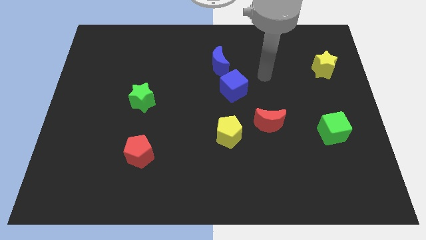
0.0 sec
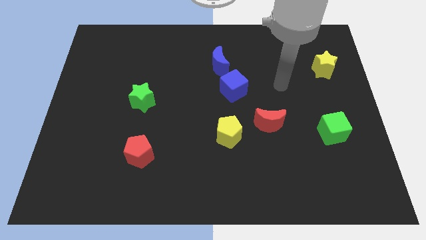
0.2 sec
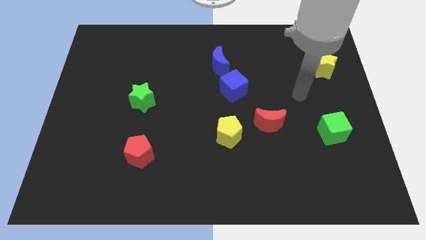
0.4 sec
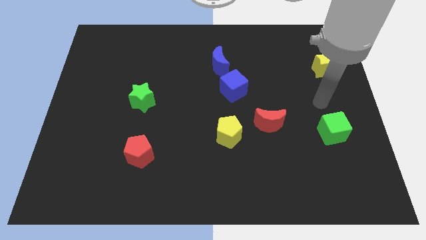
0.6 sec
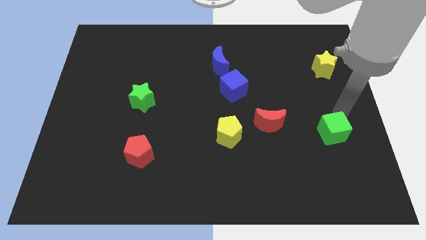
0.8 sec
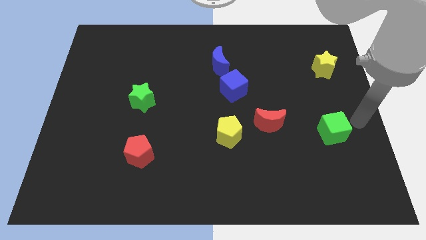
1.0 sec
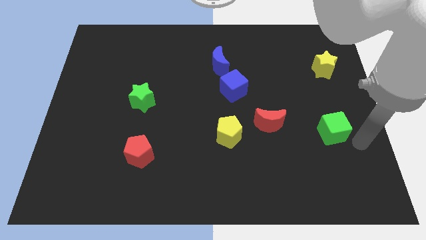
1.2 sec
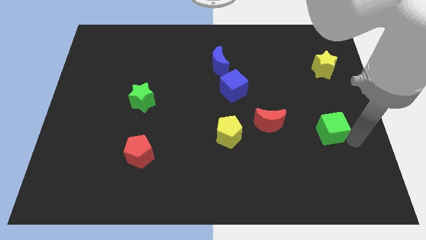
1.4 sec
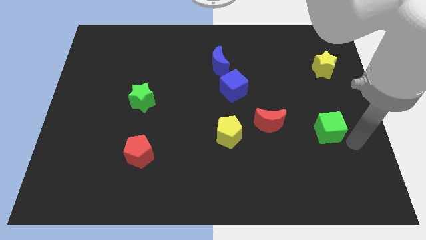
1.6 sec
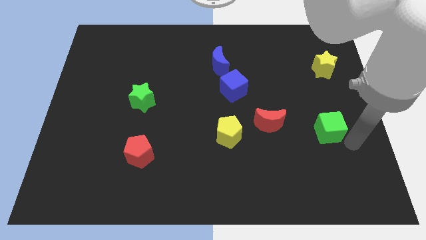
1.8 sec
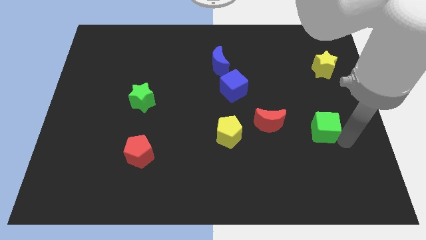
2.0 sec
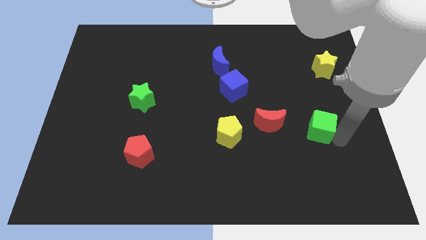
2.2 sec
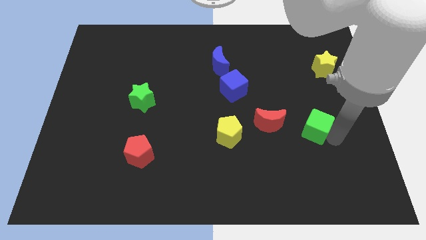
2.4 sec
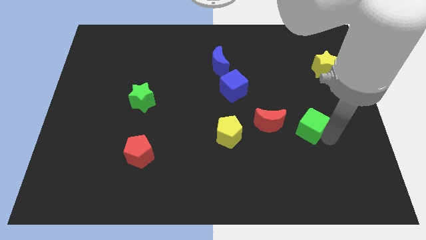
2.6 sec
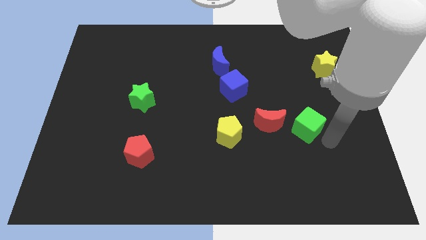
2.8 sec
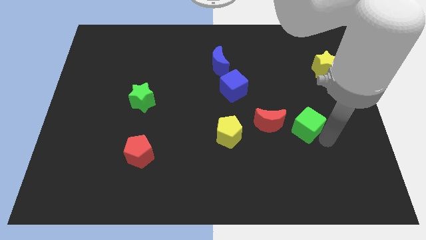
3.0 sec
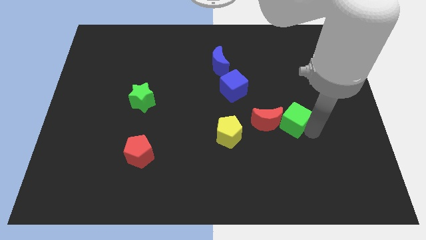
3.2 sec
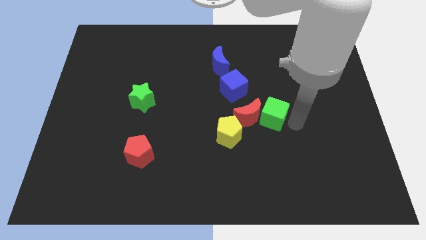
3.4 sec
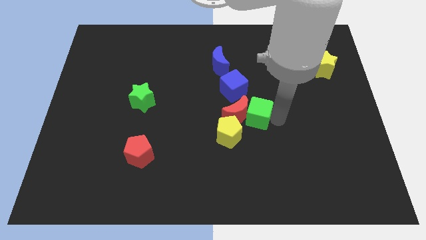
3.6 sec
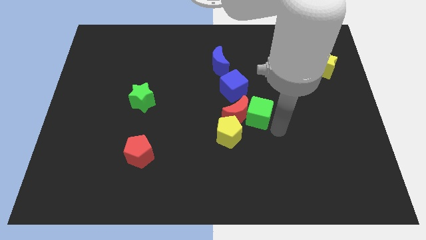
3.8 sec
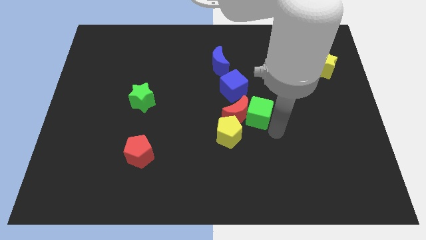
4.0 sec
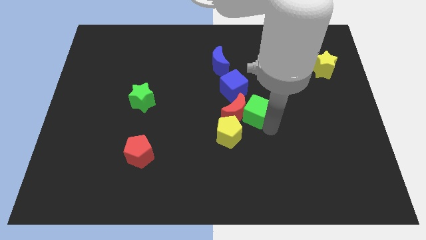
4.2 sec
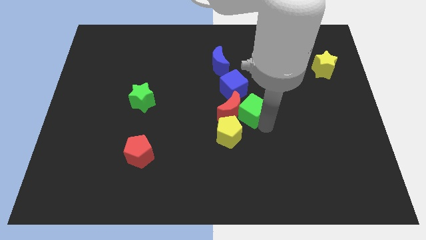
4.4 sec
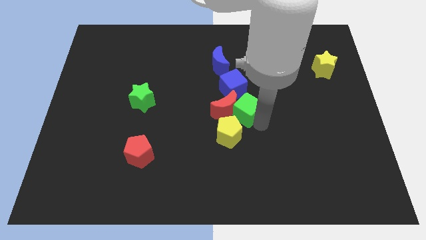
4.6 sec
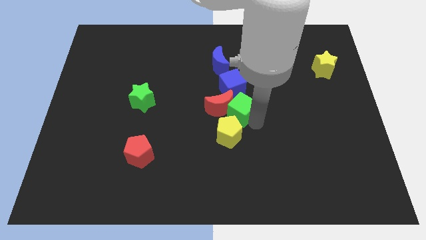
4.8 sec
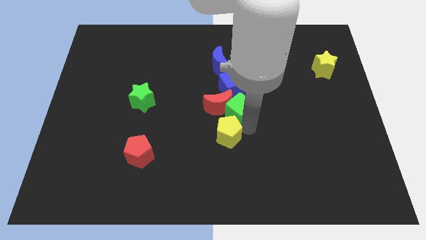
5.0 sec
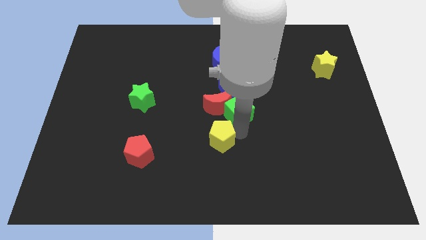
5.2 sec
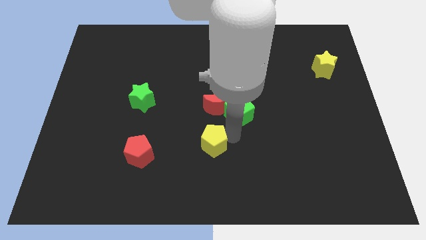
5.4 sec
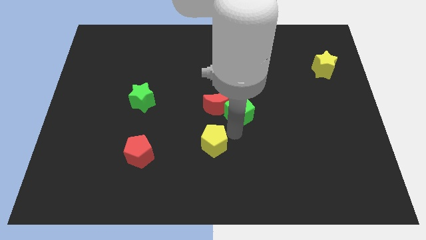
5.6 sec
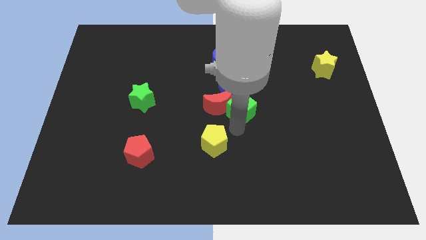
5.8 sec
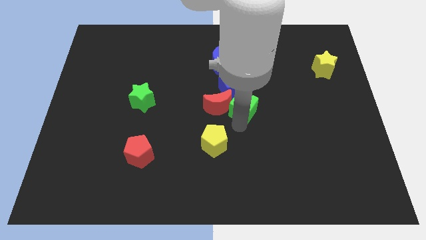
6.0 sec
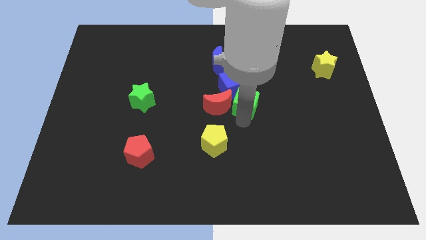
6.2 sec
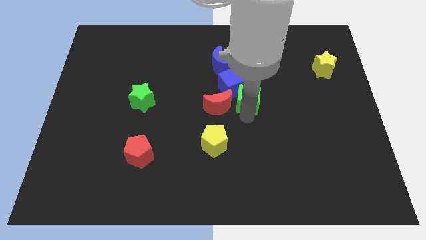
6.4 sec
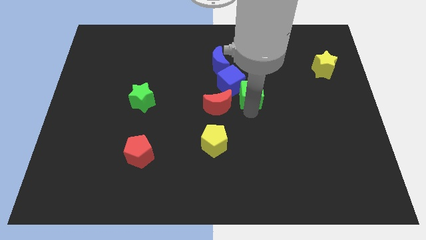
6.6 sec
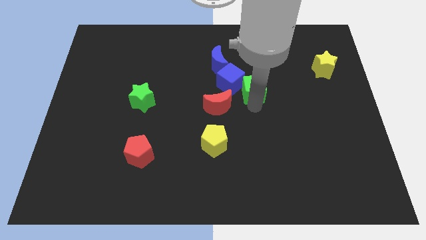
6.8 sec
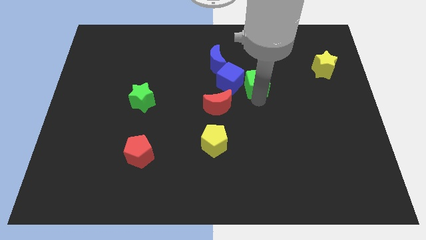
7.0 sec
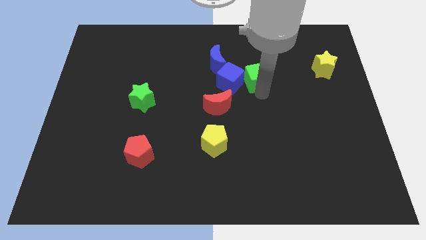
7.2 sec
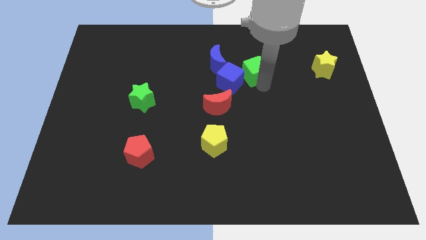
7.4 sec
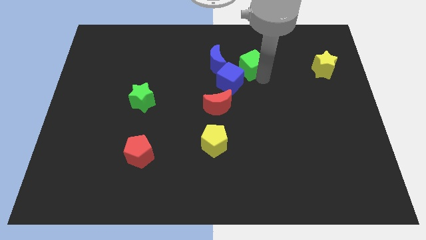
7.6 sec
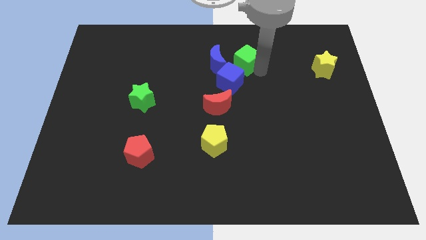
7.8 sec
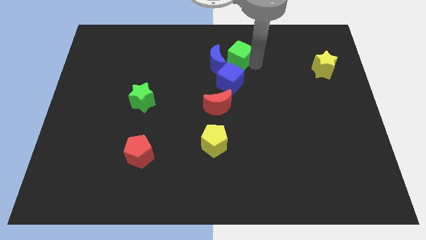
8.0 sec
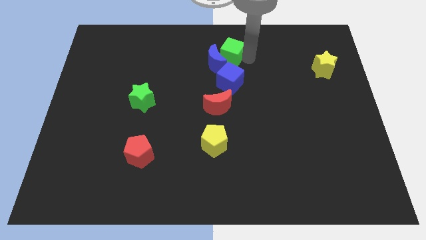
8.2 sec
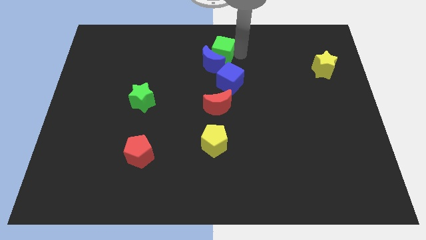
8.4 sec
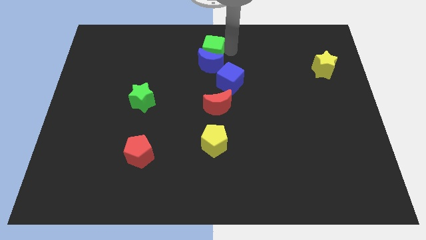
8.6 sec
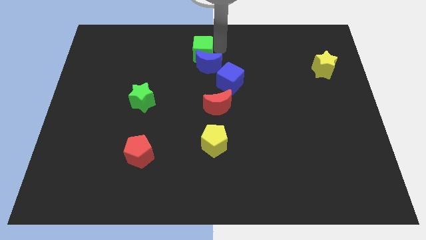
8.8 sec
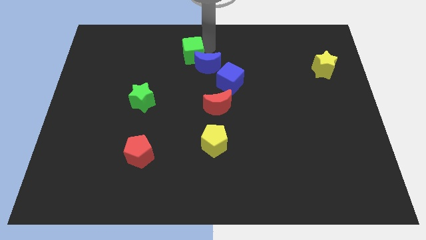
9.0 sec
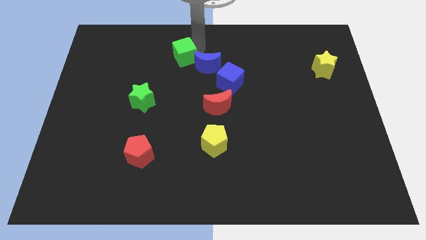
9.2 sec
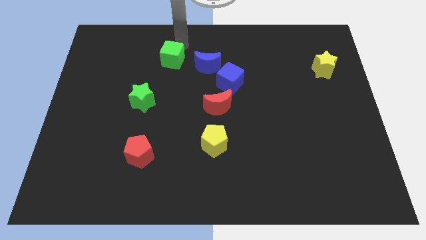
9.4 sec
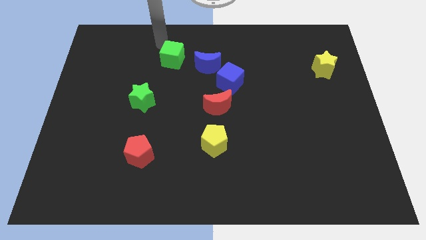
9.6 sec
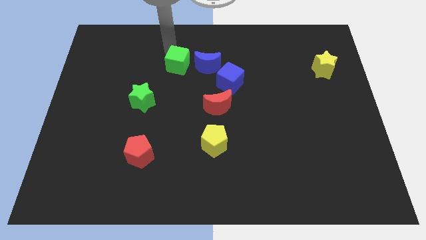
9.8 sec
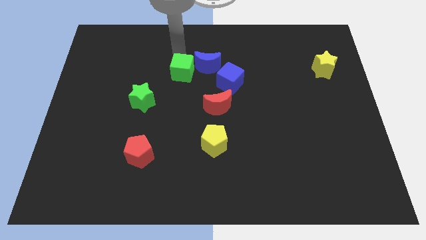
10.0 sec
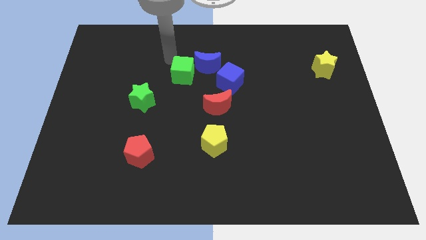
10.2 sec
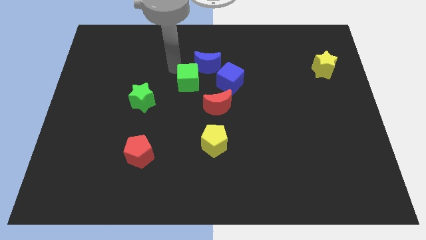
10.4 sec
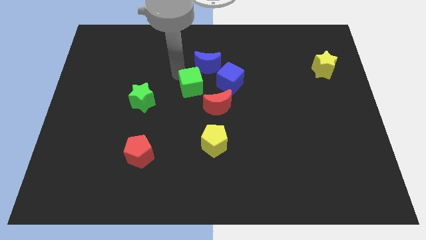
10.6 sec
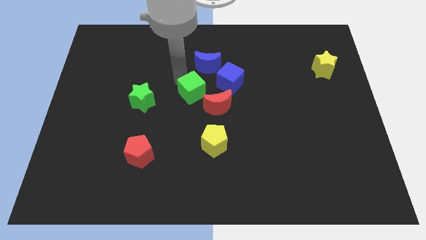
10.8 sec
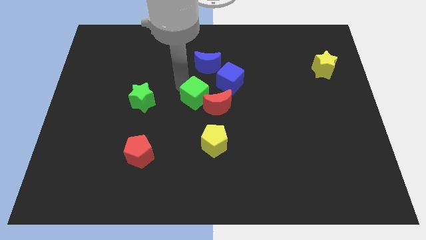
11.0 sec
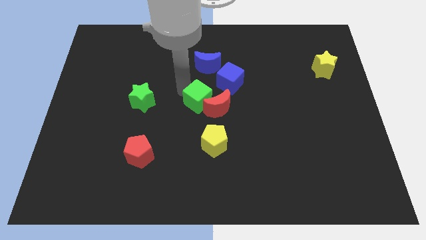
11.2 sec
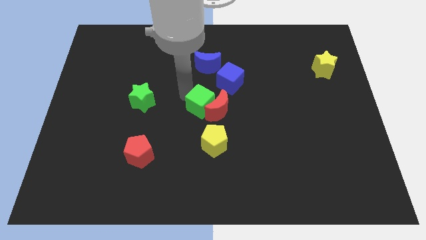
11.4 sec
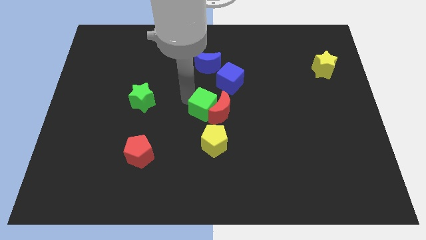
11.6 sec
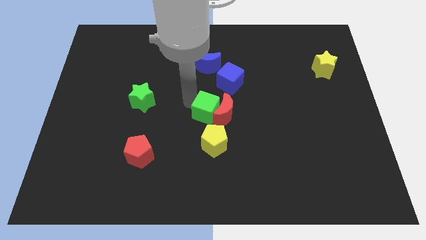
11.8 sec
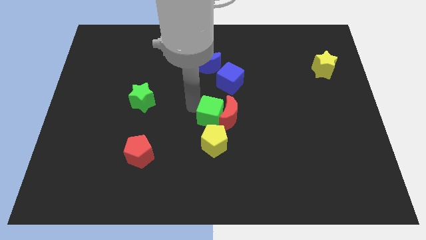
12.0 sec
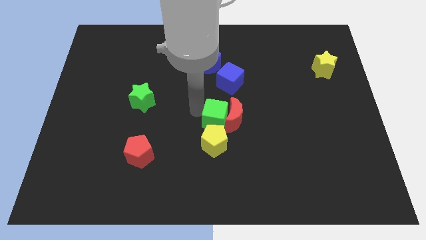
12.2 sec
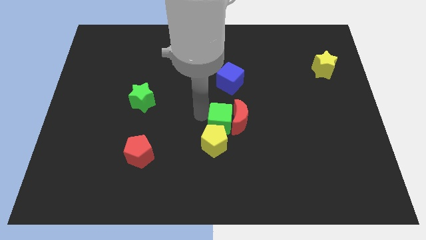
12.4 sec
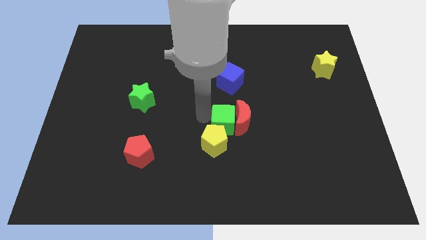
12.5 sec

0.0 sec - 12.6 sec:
put the green cube just left of the red moon

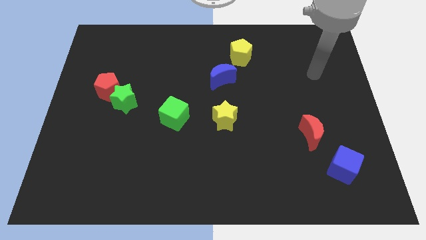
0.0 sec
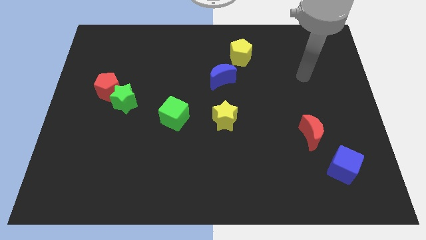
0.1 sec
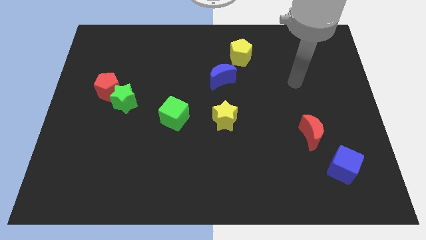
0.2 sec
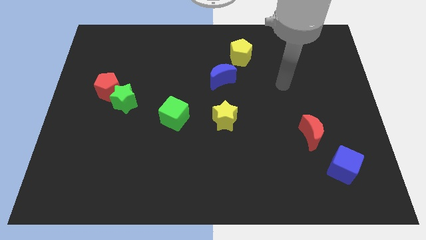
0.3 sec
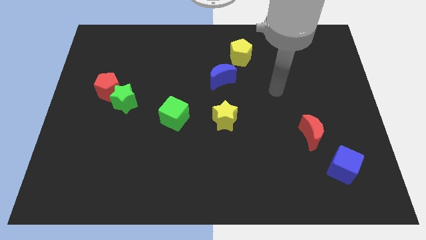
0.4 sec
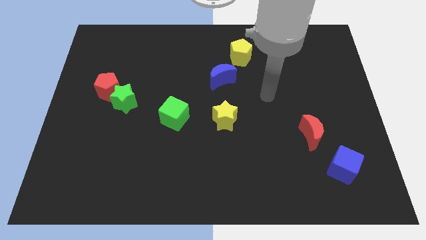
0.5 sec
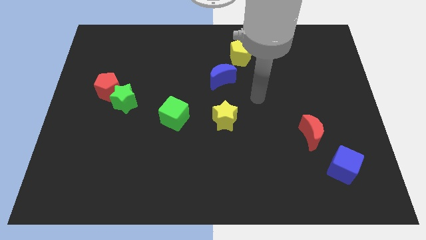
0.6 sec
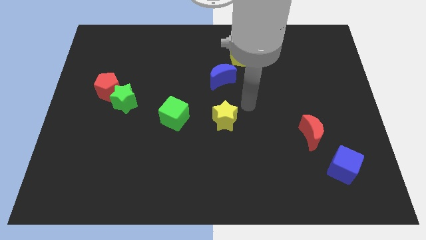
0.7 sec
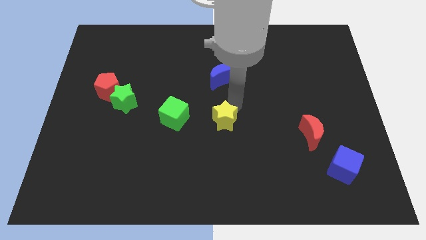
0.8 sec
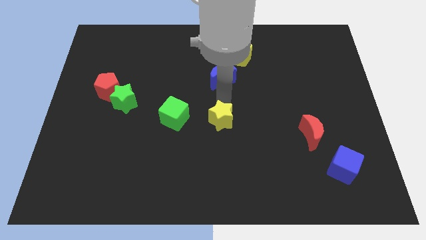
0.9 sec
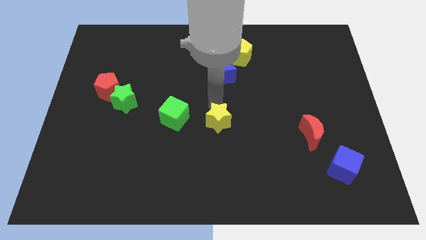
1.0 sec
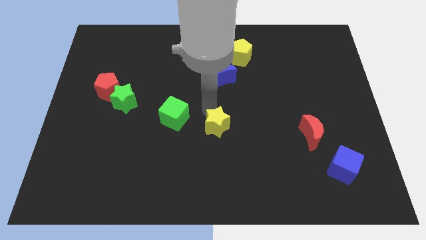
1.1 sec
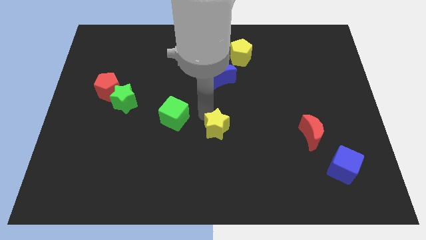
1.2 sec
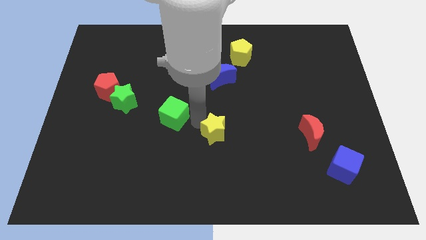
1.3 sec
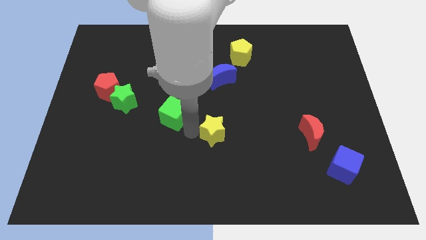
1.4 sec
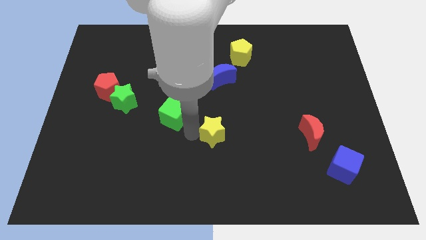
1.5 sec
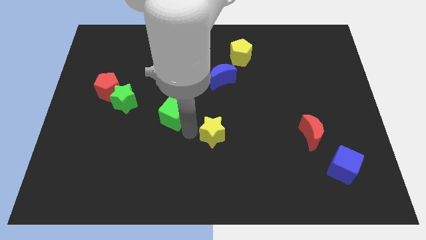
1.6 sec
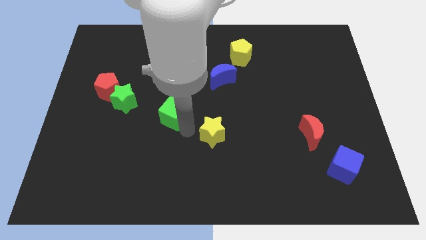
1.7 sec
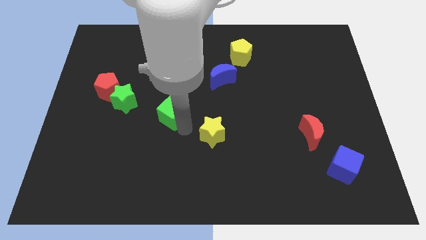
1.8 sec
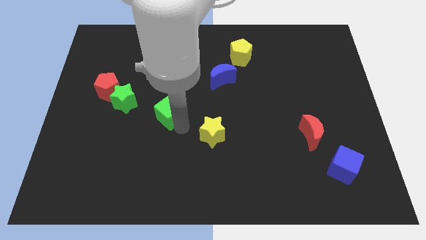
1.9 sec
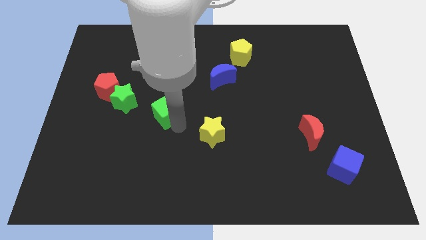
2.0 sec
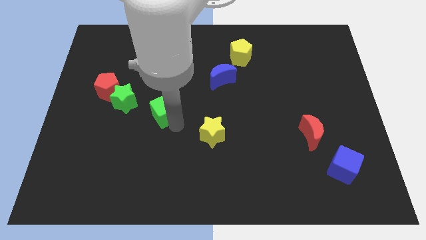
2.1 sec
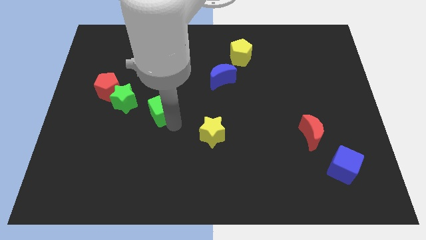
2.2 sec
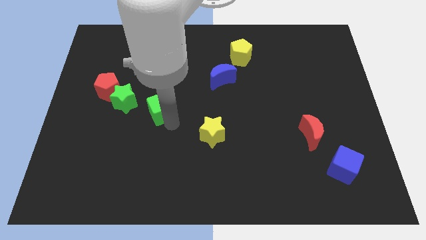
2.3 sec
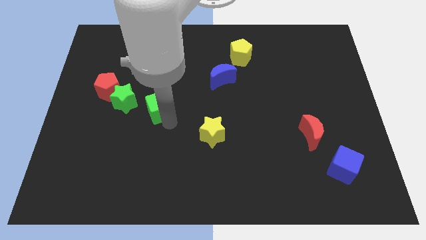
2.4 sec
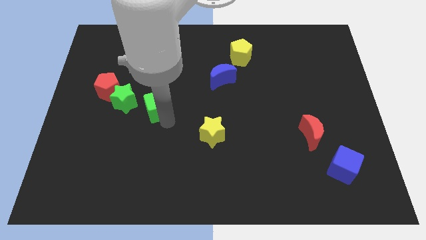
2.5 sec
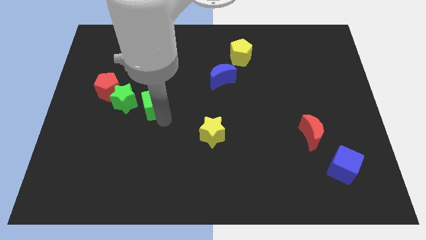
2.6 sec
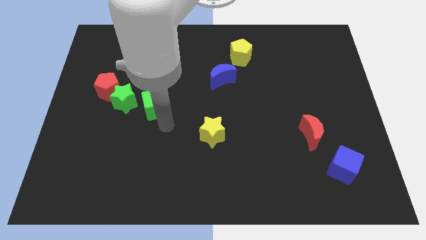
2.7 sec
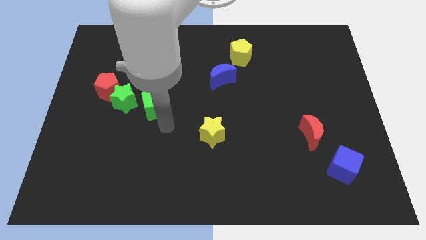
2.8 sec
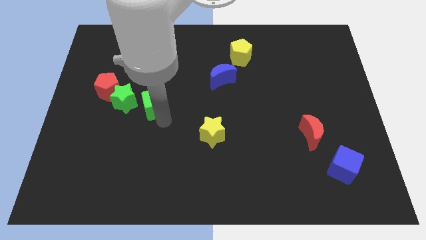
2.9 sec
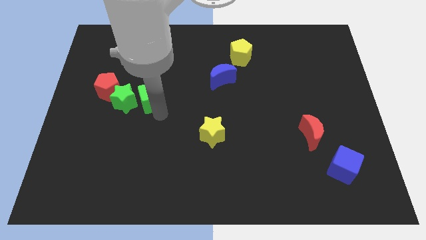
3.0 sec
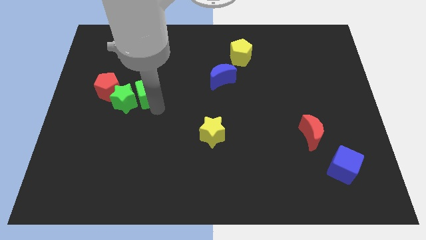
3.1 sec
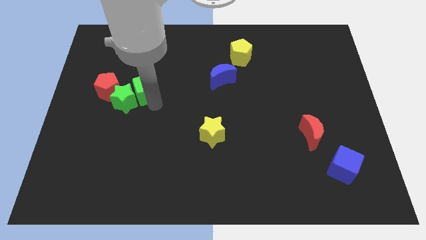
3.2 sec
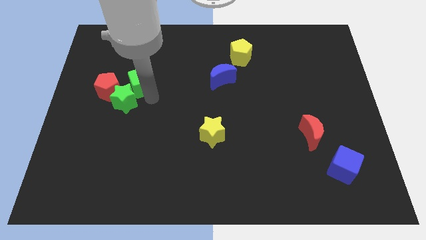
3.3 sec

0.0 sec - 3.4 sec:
slide the green cube to the top side of the green star
